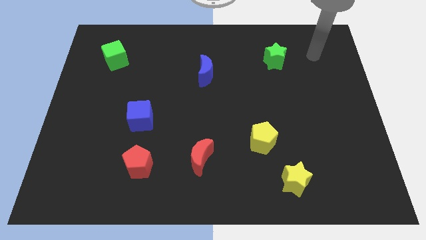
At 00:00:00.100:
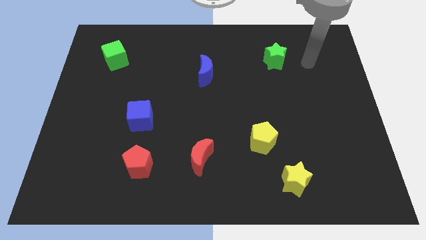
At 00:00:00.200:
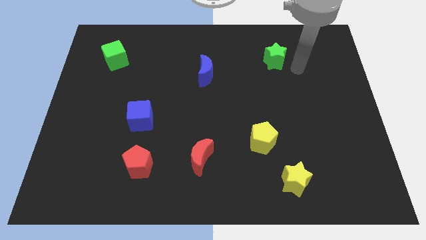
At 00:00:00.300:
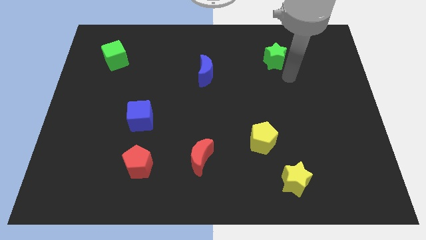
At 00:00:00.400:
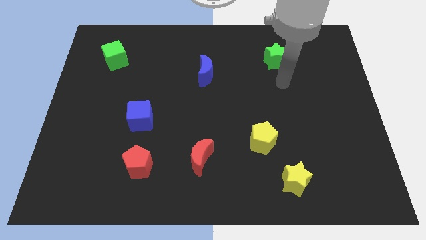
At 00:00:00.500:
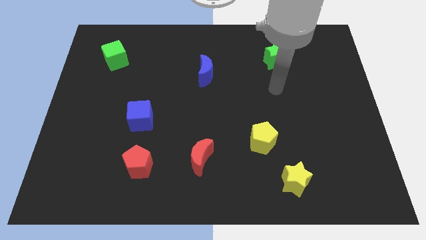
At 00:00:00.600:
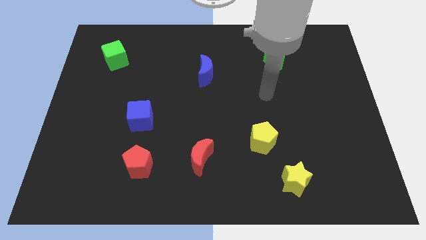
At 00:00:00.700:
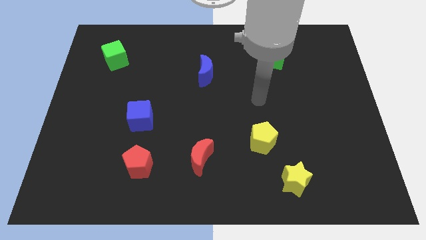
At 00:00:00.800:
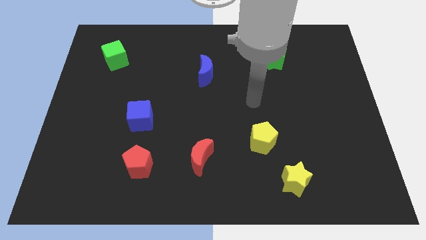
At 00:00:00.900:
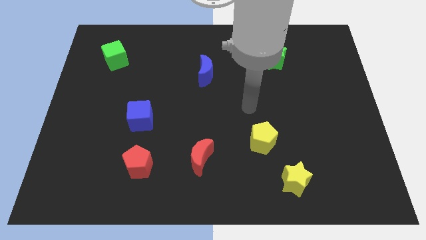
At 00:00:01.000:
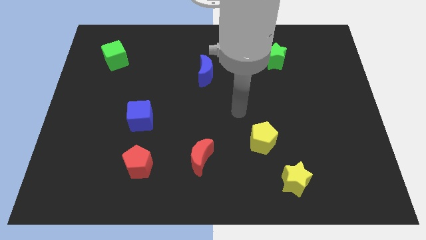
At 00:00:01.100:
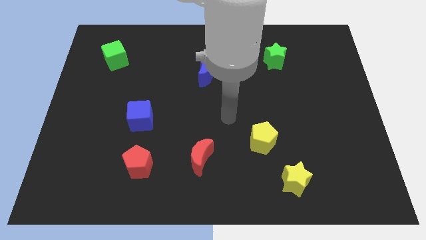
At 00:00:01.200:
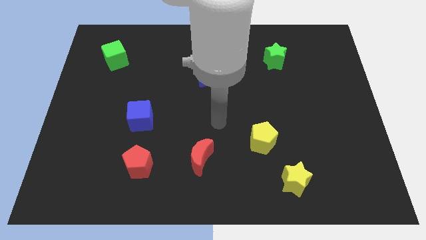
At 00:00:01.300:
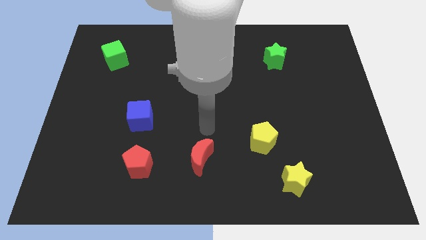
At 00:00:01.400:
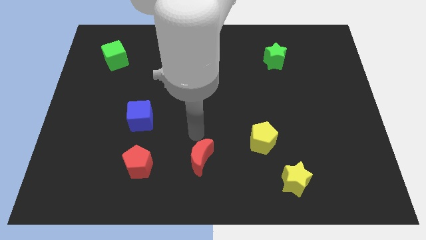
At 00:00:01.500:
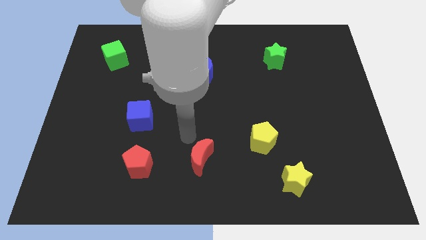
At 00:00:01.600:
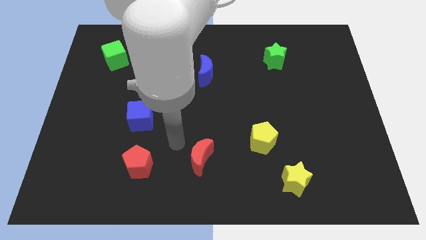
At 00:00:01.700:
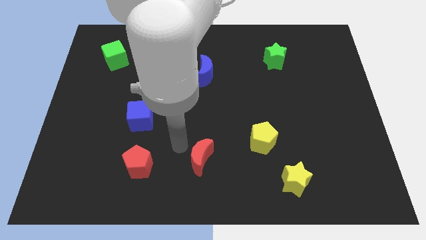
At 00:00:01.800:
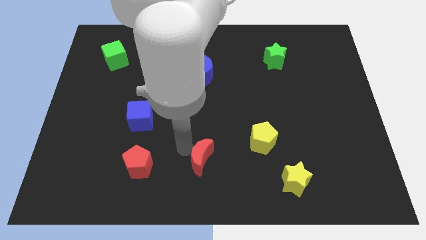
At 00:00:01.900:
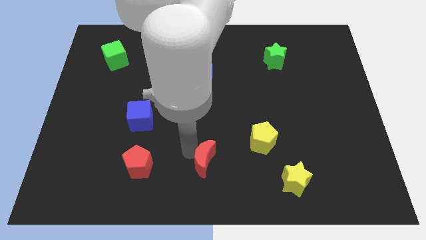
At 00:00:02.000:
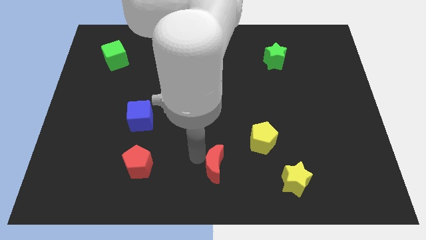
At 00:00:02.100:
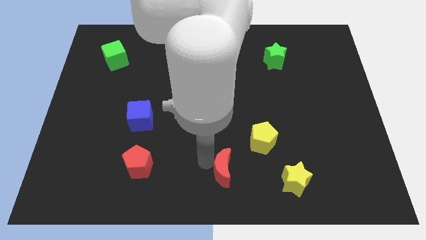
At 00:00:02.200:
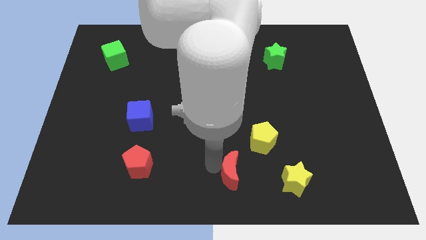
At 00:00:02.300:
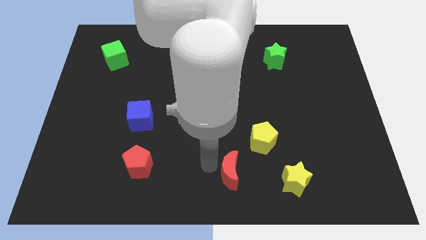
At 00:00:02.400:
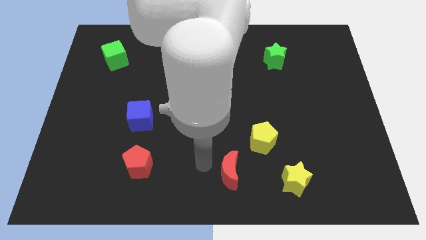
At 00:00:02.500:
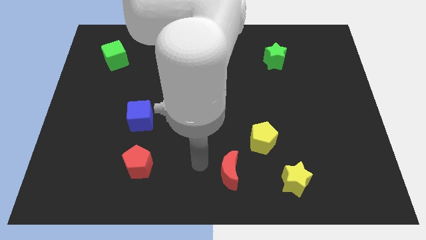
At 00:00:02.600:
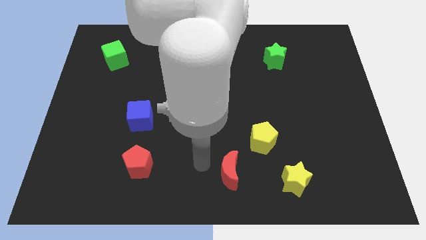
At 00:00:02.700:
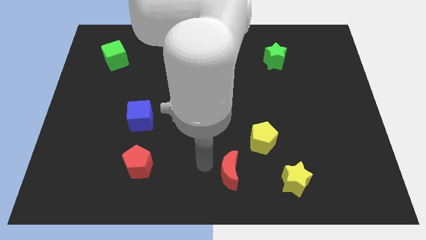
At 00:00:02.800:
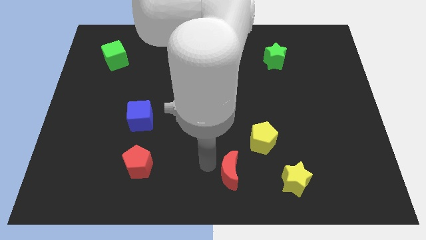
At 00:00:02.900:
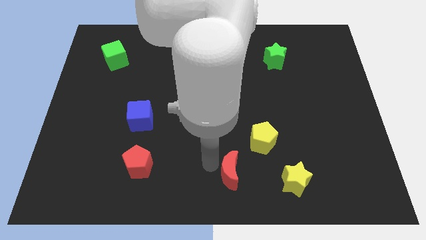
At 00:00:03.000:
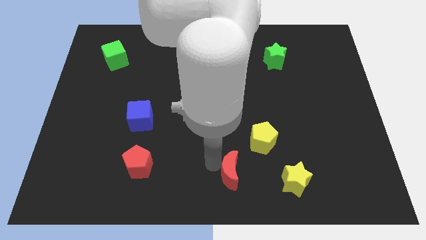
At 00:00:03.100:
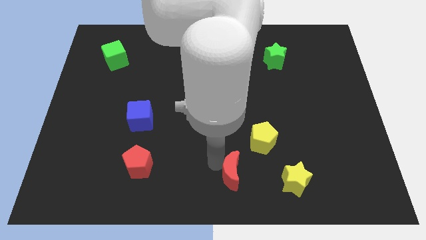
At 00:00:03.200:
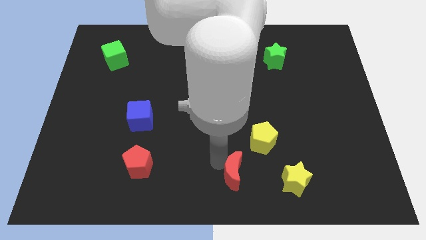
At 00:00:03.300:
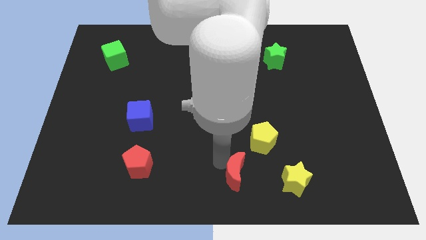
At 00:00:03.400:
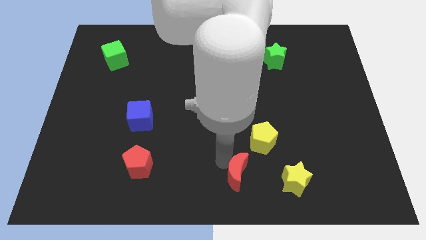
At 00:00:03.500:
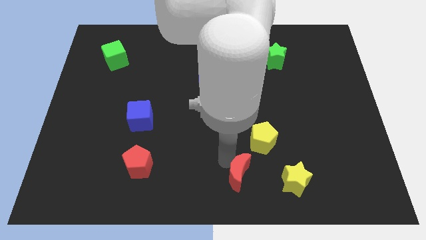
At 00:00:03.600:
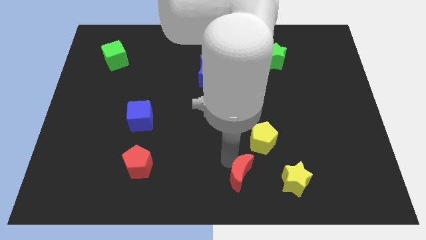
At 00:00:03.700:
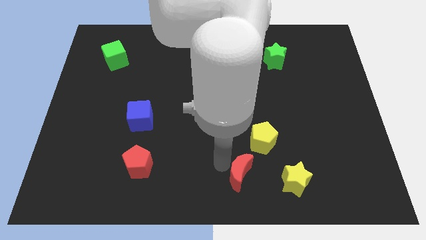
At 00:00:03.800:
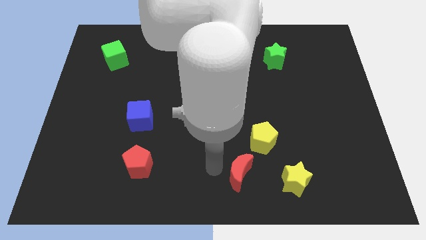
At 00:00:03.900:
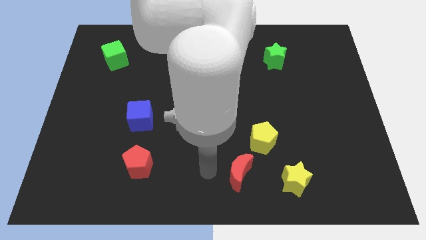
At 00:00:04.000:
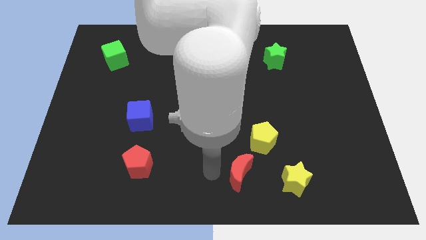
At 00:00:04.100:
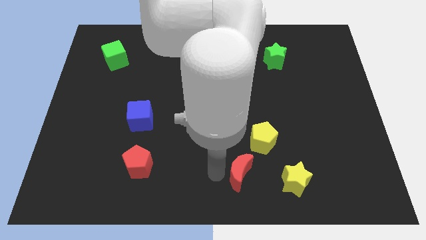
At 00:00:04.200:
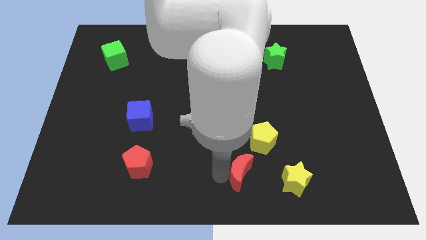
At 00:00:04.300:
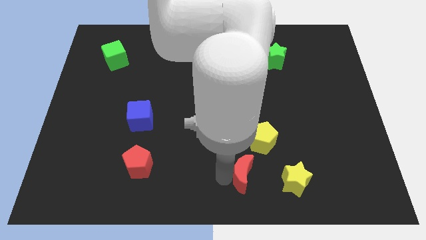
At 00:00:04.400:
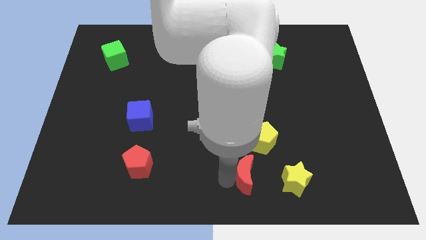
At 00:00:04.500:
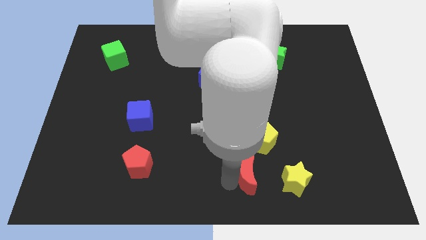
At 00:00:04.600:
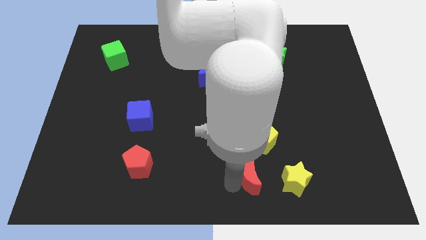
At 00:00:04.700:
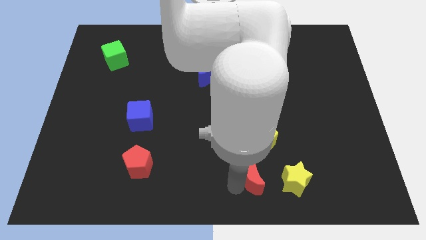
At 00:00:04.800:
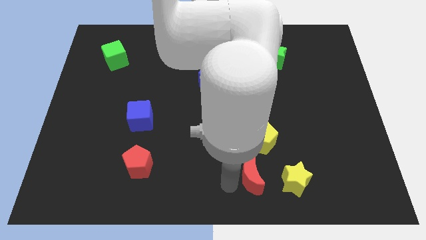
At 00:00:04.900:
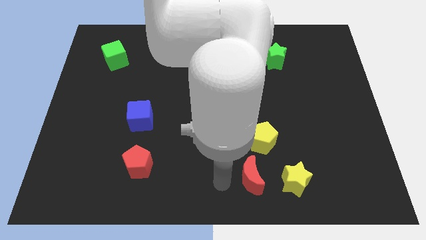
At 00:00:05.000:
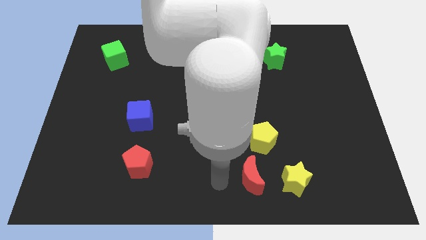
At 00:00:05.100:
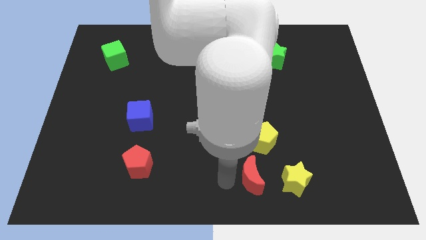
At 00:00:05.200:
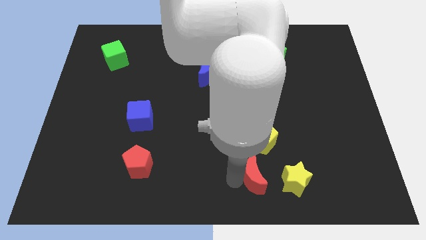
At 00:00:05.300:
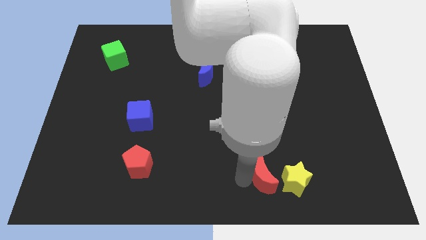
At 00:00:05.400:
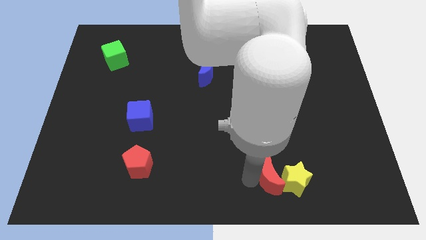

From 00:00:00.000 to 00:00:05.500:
push the red moon close to the yellow star
